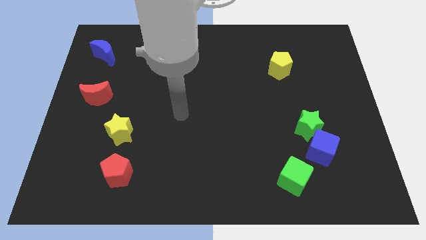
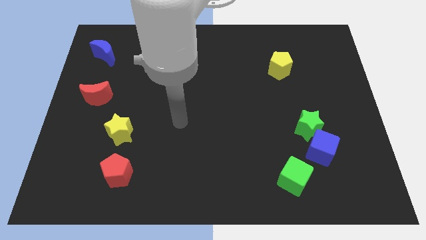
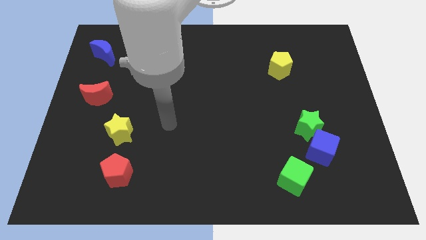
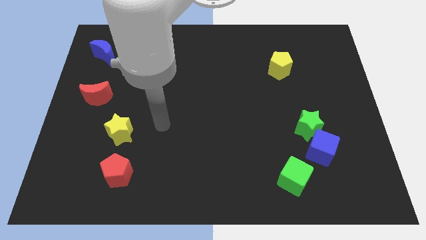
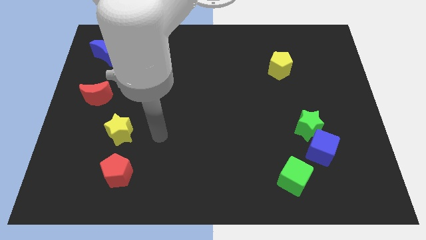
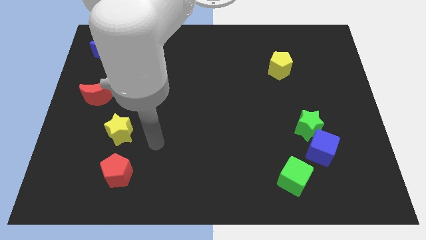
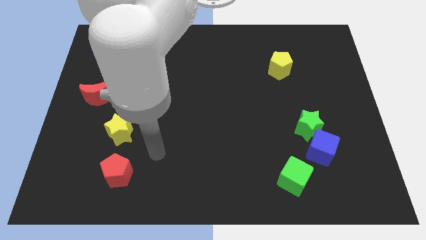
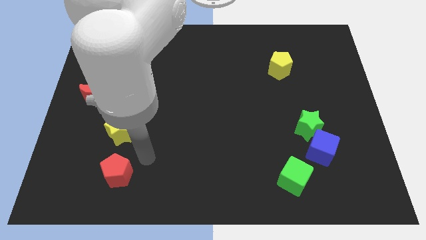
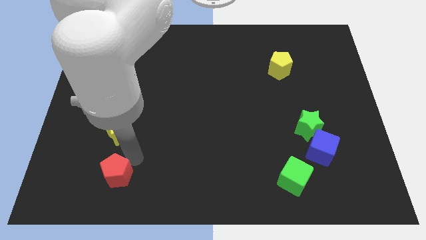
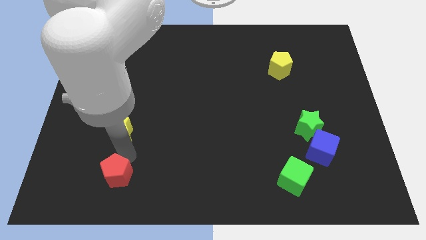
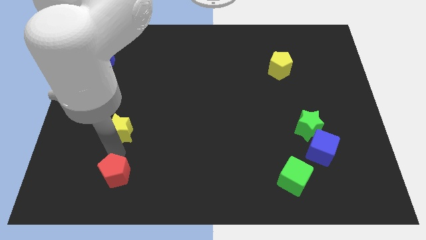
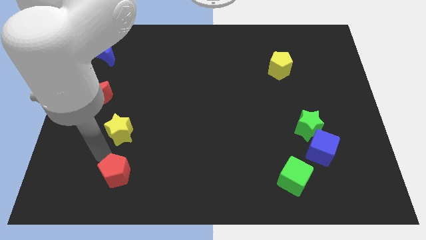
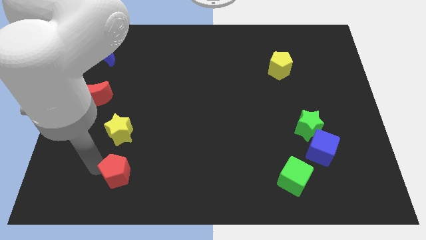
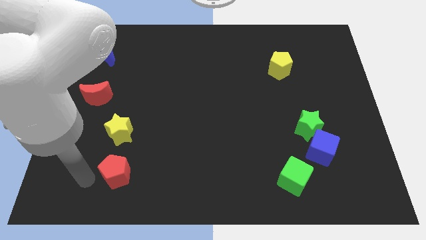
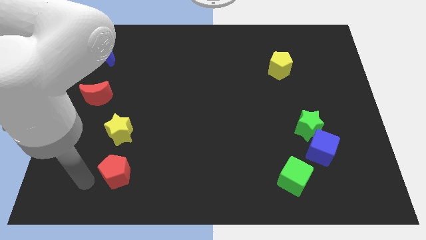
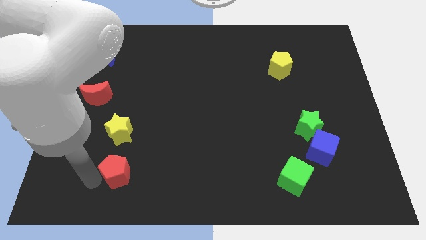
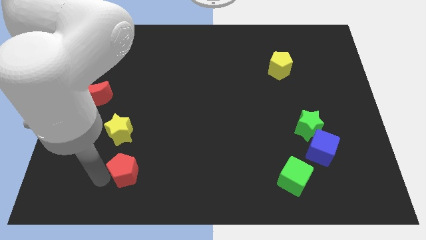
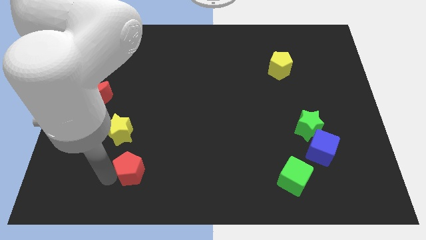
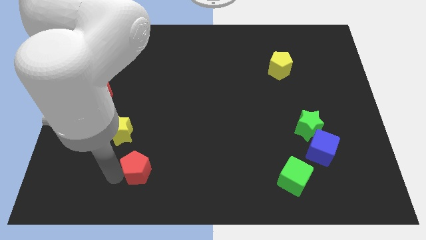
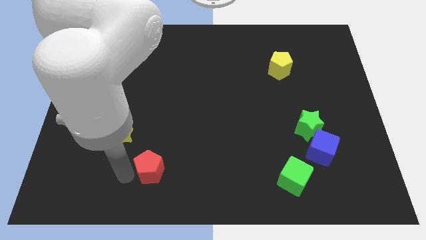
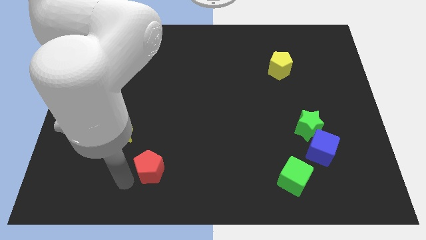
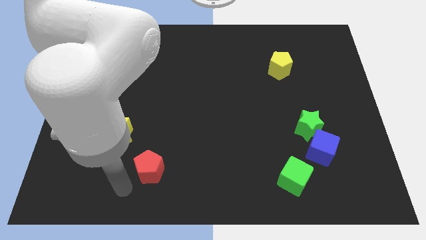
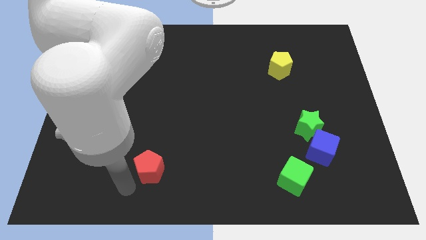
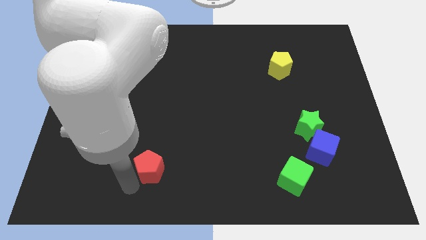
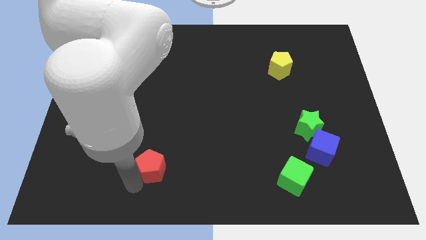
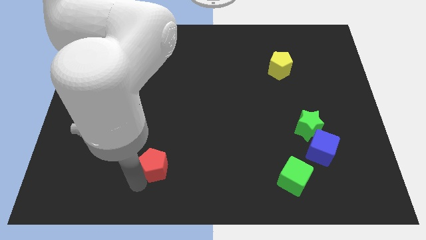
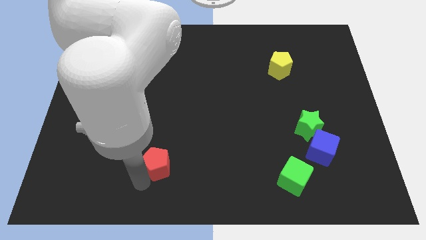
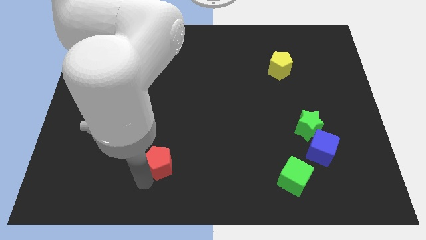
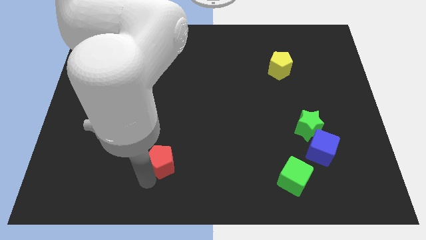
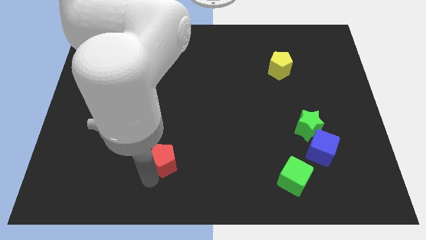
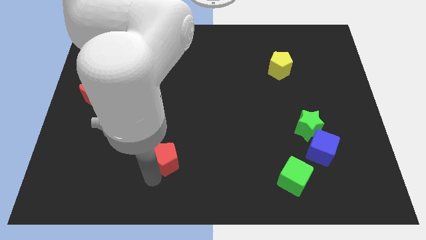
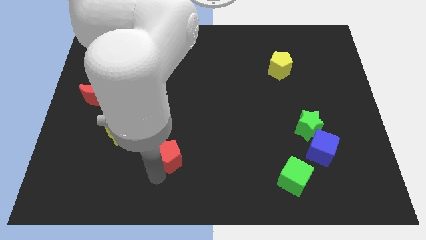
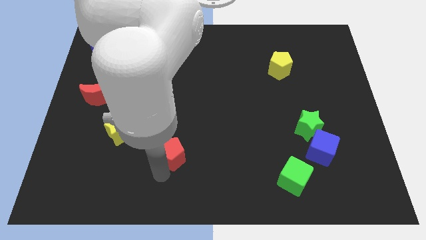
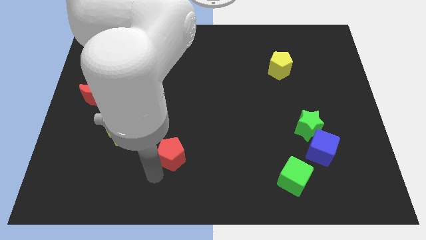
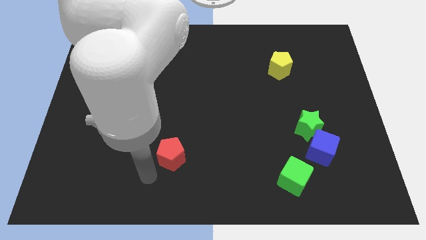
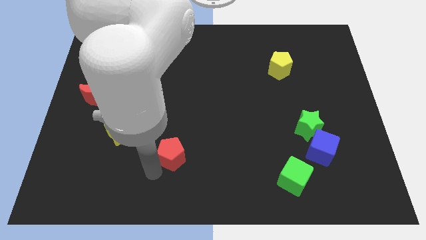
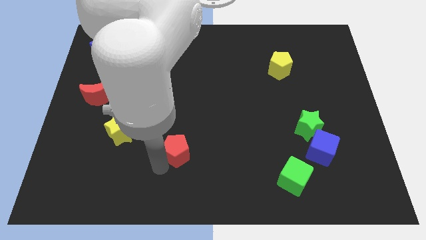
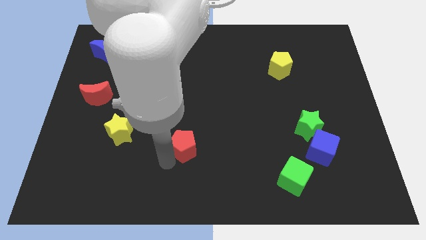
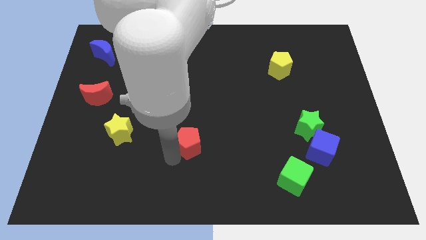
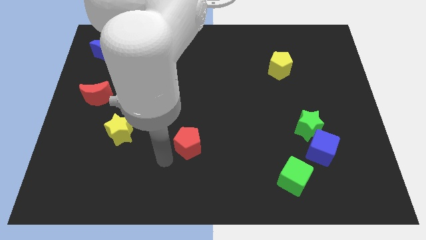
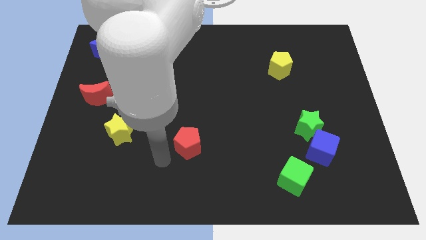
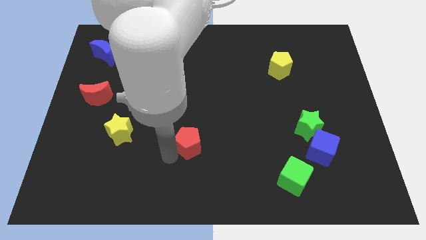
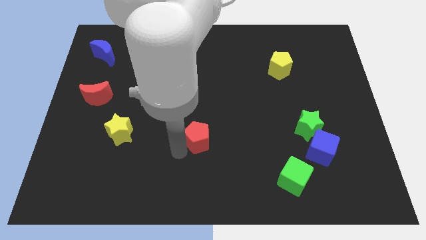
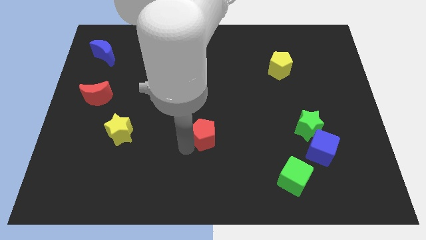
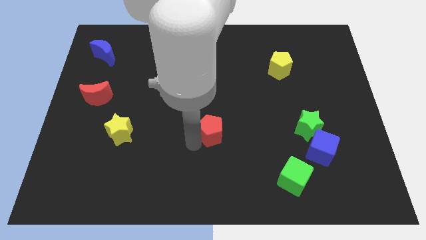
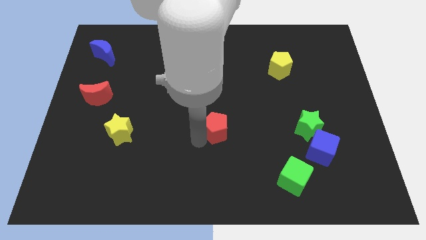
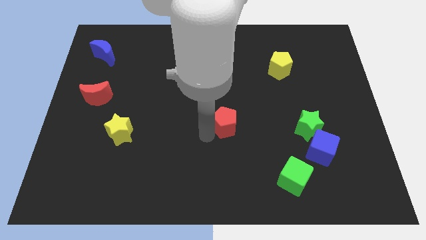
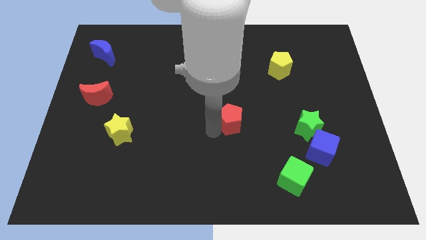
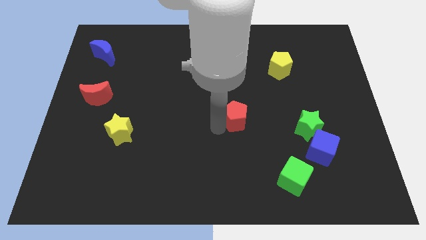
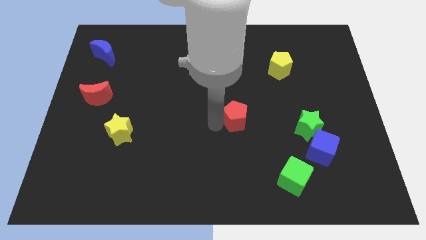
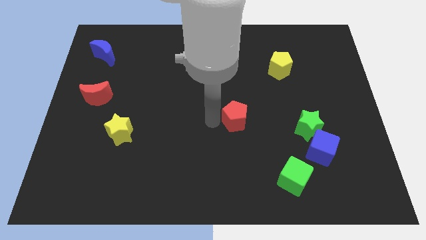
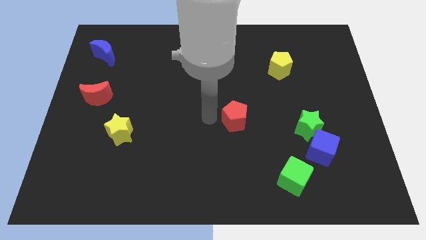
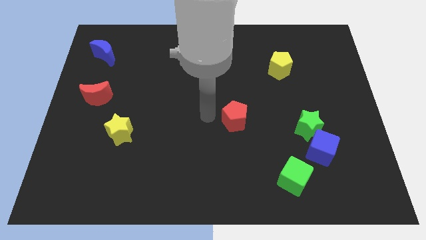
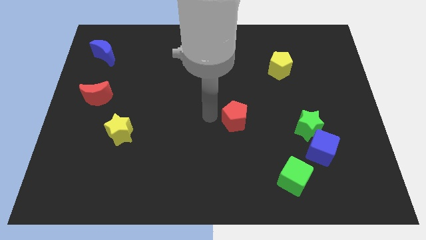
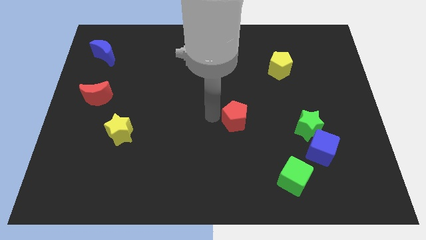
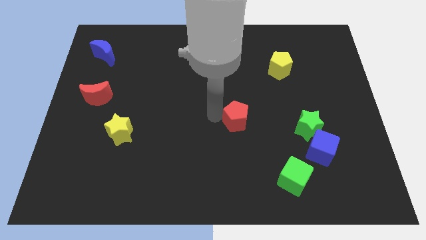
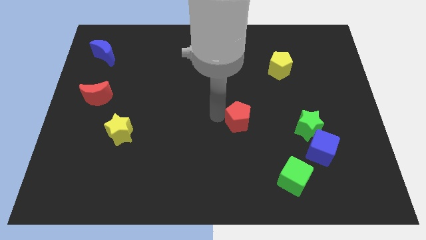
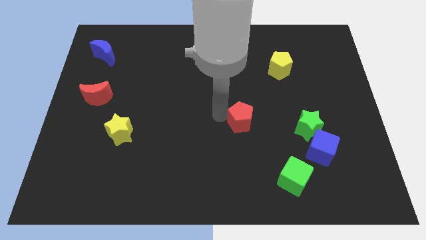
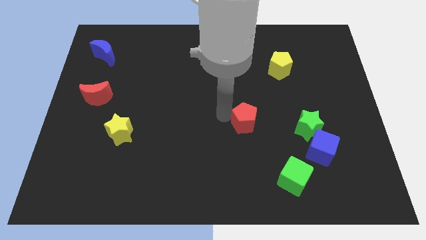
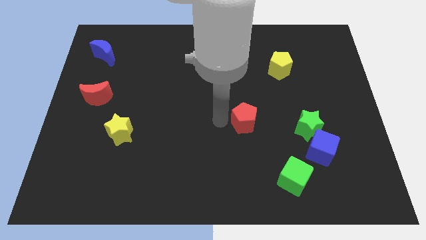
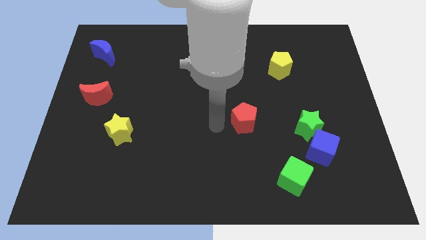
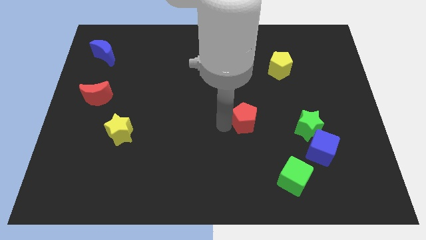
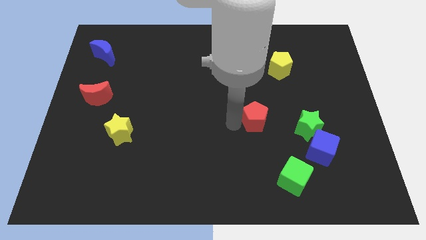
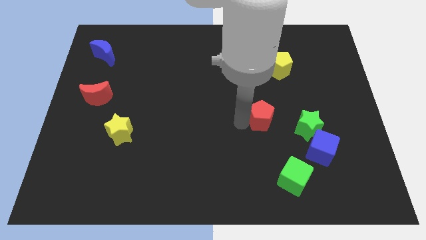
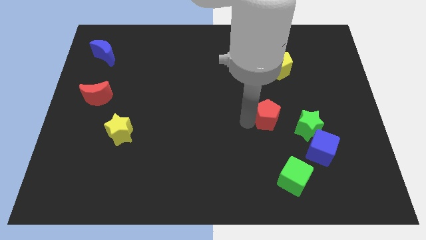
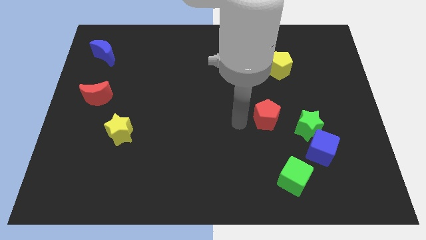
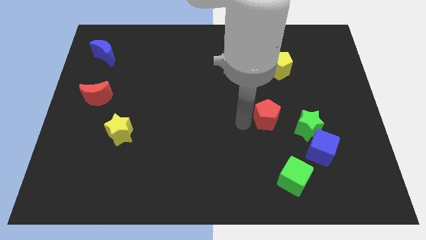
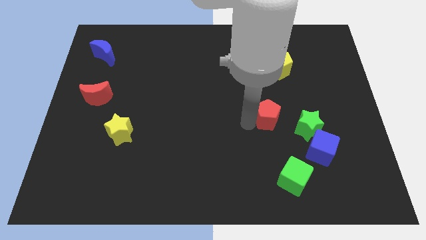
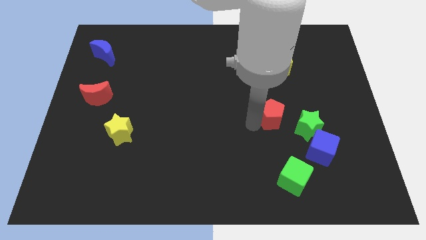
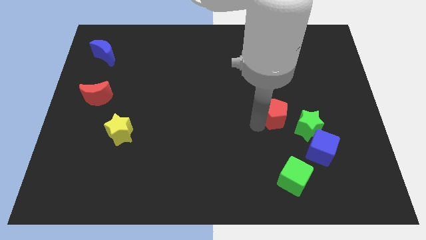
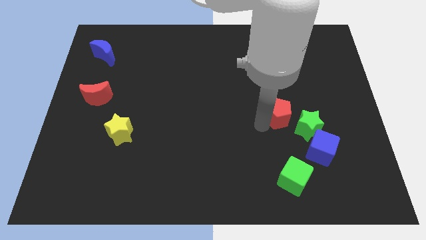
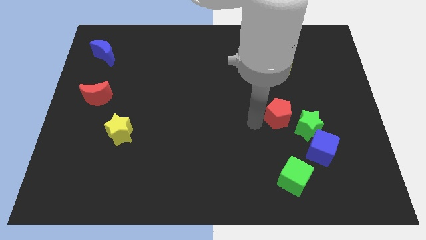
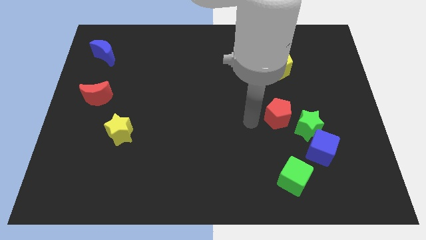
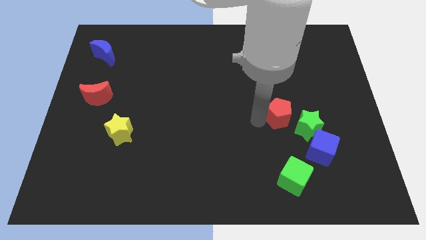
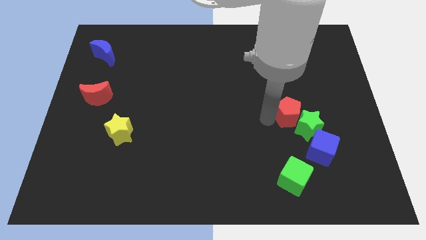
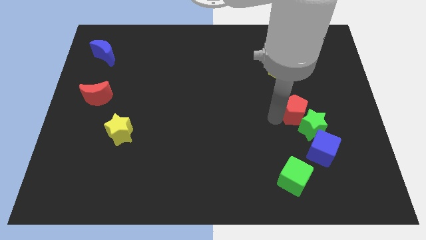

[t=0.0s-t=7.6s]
slide the red pentagon to the top side of the blue cube
